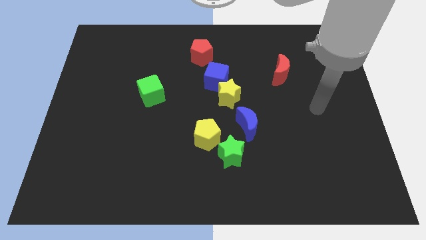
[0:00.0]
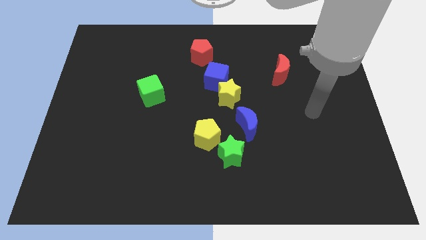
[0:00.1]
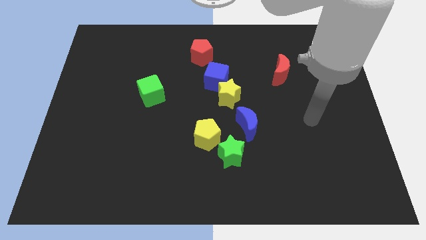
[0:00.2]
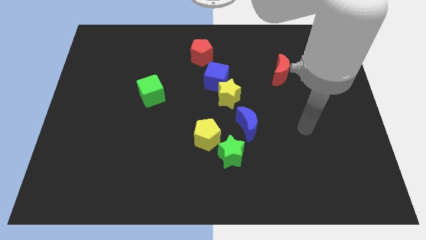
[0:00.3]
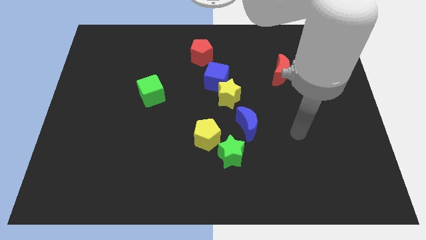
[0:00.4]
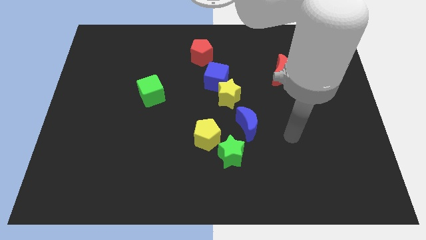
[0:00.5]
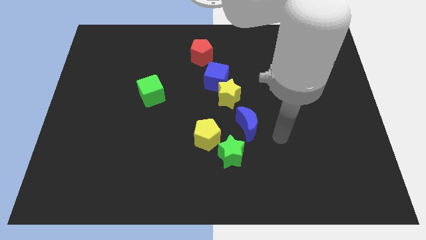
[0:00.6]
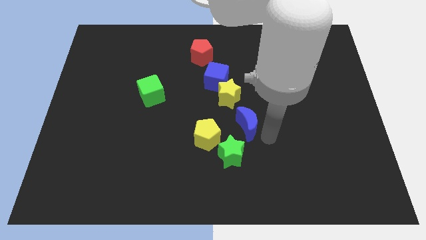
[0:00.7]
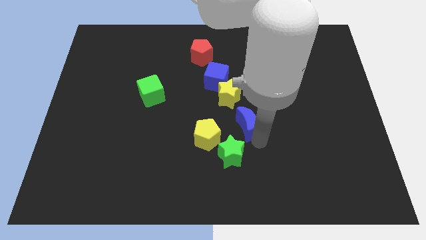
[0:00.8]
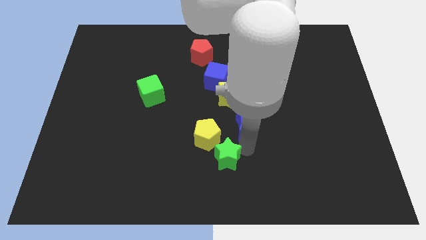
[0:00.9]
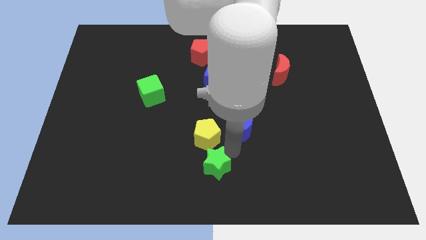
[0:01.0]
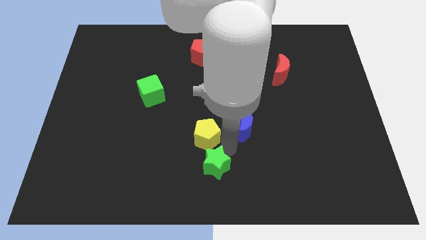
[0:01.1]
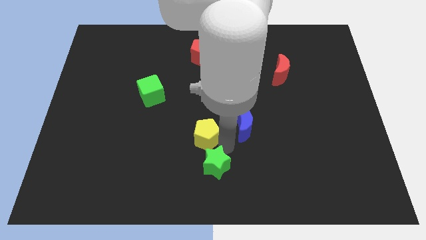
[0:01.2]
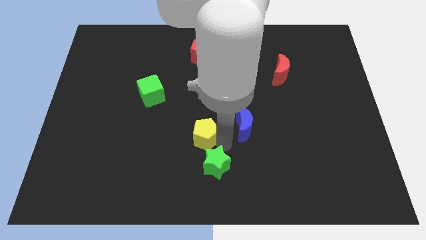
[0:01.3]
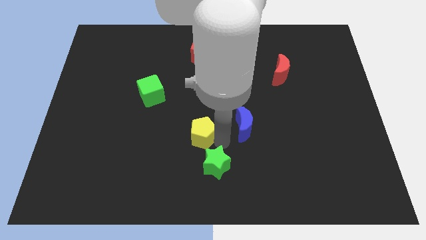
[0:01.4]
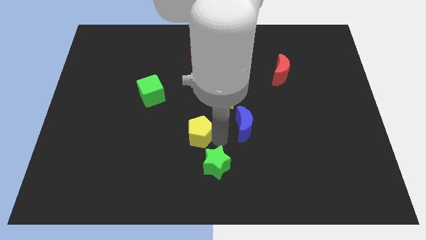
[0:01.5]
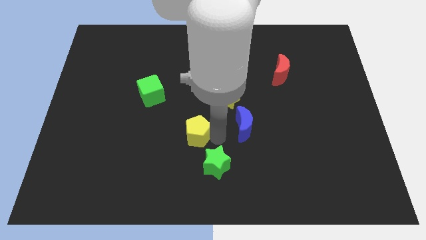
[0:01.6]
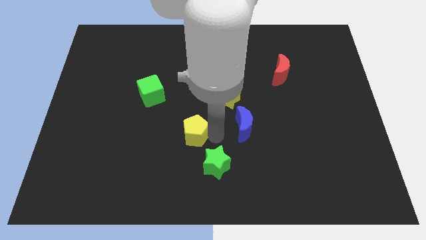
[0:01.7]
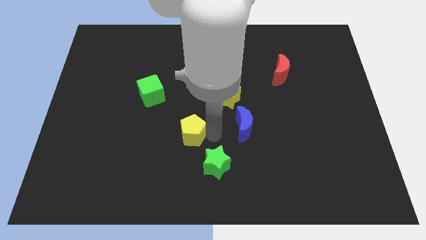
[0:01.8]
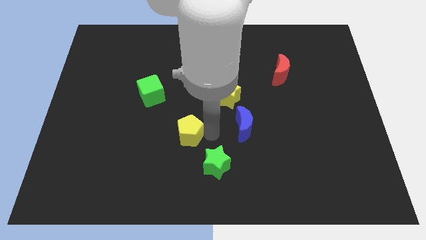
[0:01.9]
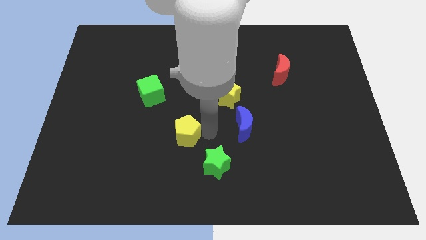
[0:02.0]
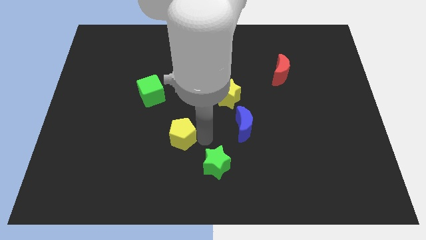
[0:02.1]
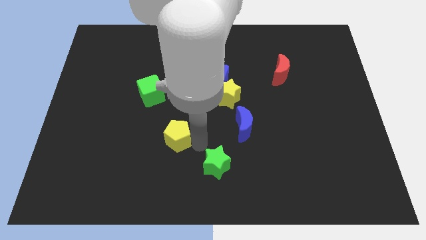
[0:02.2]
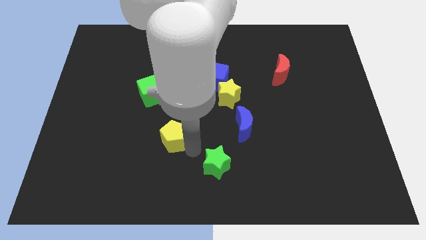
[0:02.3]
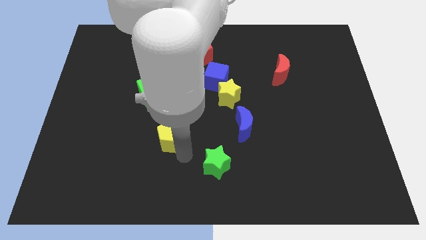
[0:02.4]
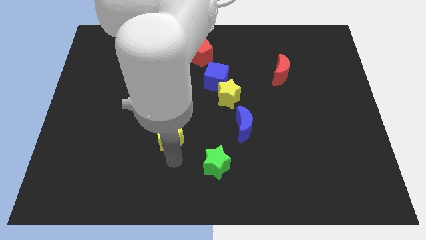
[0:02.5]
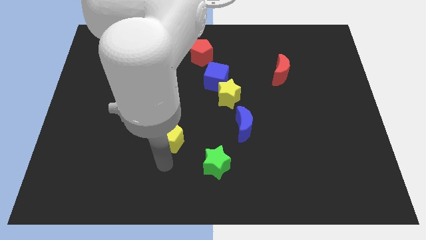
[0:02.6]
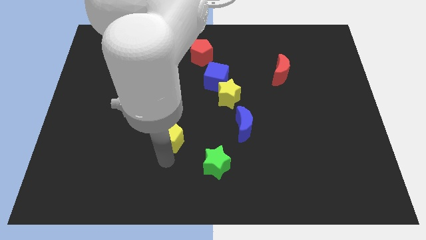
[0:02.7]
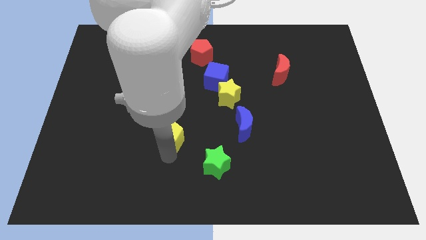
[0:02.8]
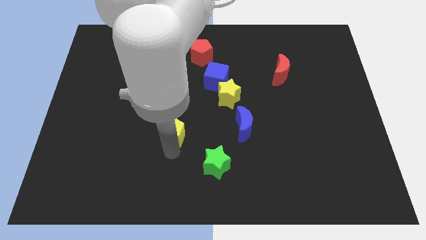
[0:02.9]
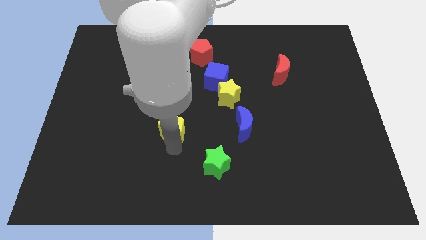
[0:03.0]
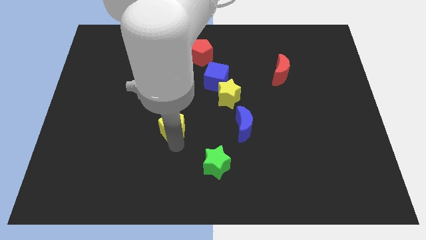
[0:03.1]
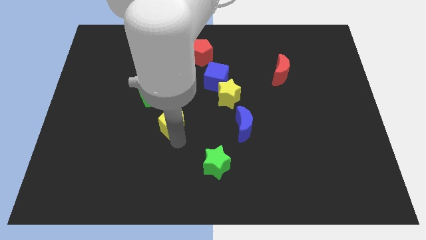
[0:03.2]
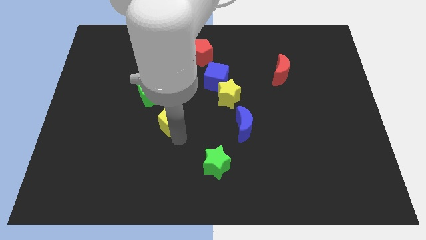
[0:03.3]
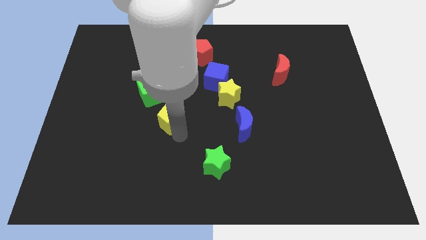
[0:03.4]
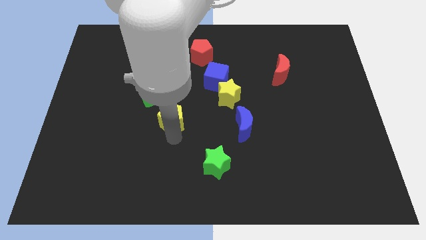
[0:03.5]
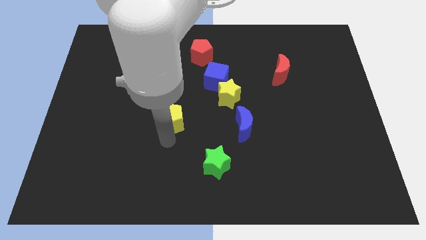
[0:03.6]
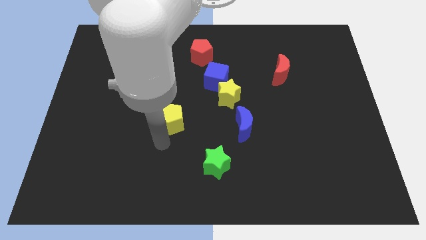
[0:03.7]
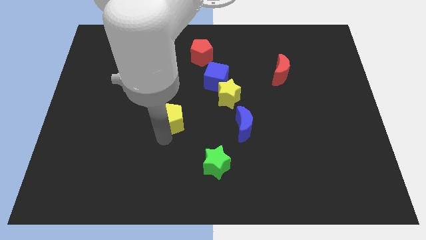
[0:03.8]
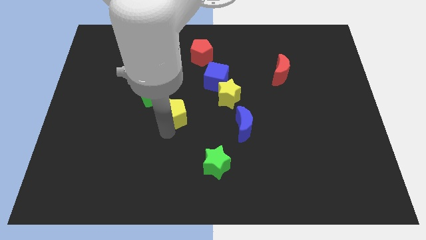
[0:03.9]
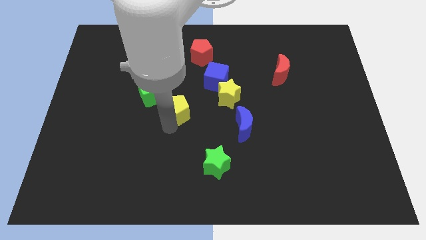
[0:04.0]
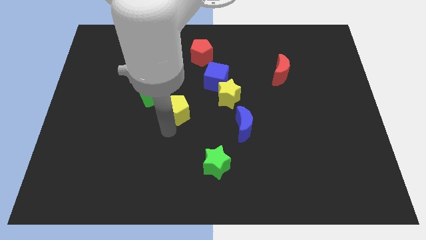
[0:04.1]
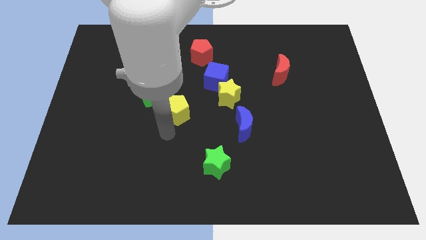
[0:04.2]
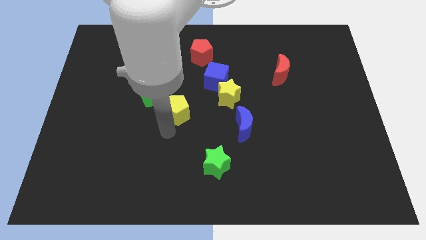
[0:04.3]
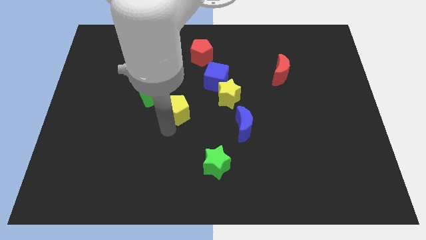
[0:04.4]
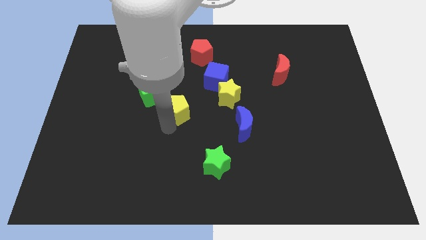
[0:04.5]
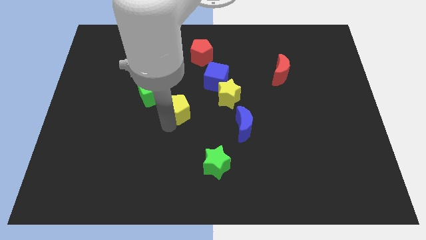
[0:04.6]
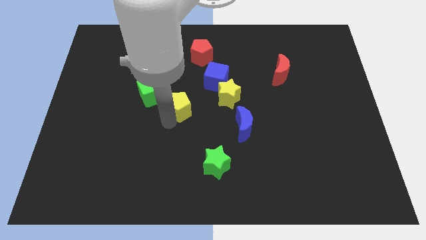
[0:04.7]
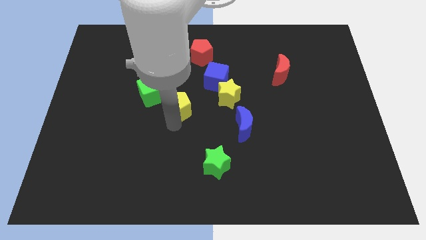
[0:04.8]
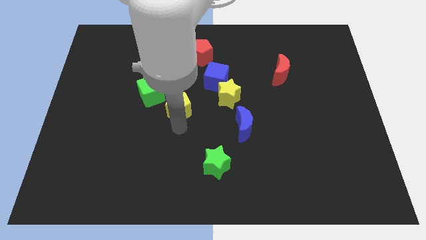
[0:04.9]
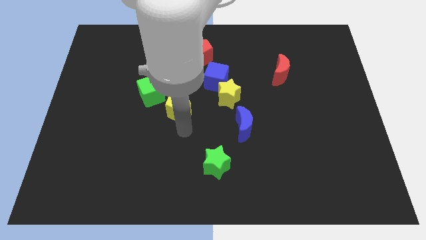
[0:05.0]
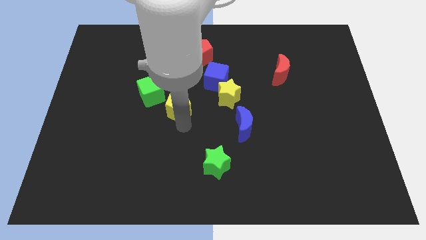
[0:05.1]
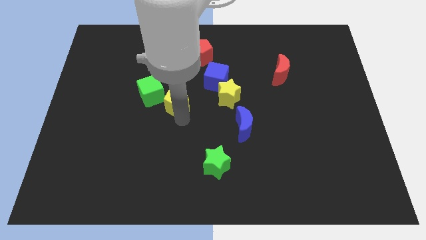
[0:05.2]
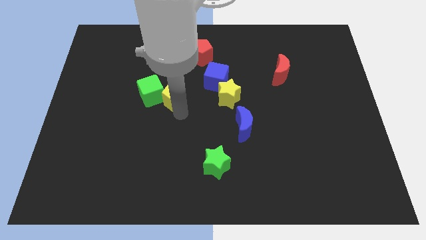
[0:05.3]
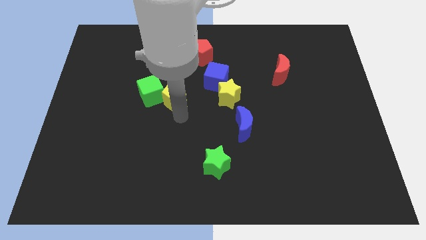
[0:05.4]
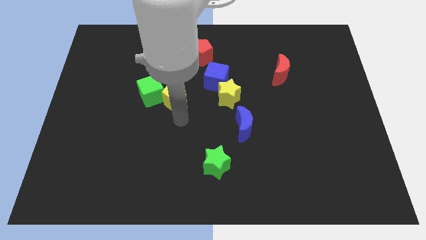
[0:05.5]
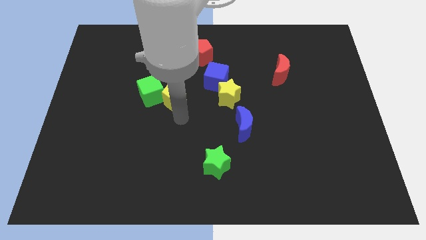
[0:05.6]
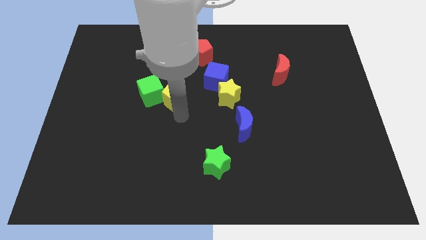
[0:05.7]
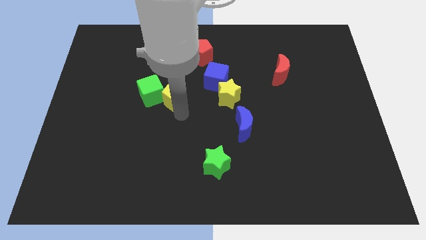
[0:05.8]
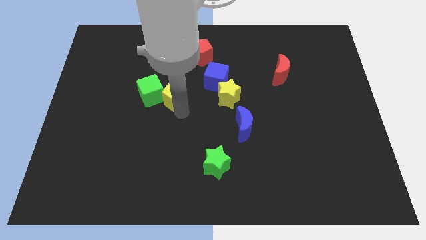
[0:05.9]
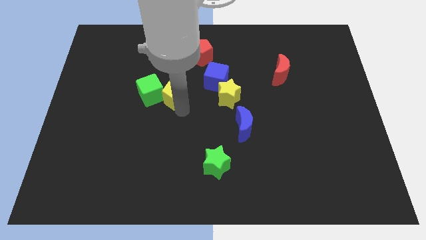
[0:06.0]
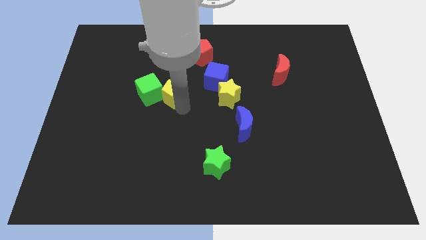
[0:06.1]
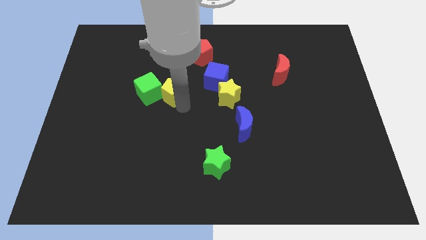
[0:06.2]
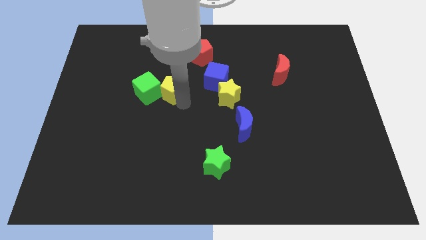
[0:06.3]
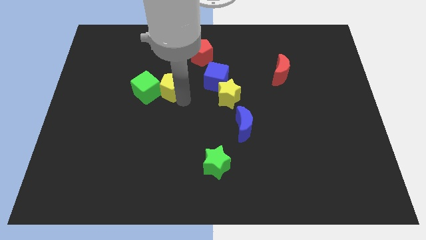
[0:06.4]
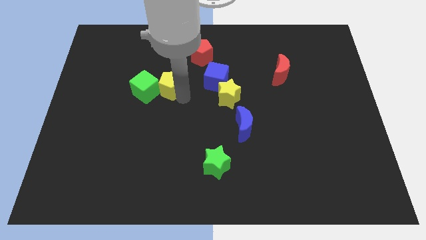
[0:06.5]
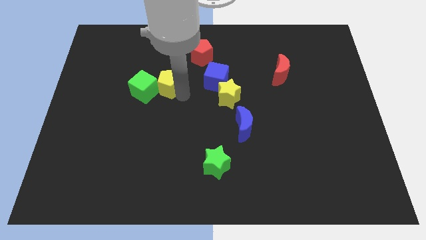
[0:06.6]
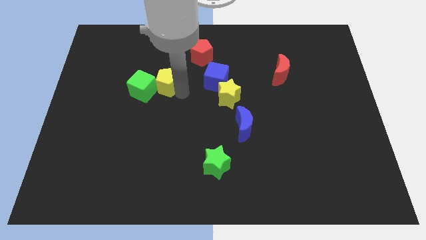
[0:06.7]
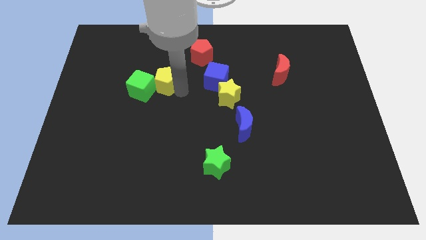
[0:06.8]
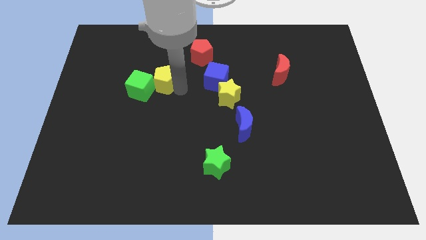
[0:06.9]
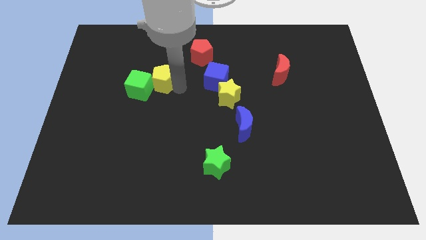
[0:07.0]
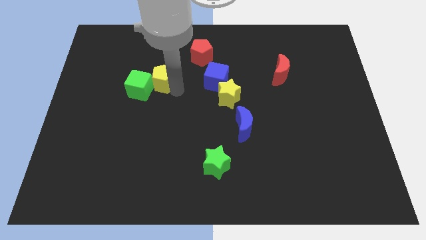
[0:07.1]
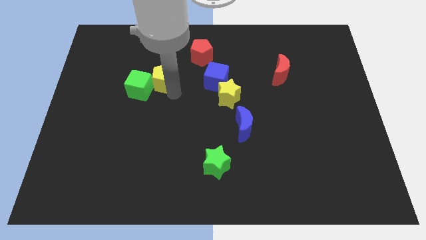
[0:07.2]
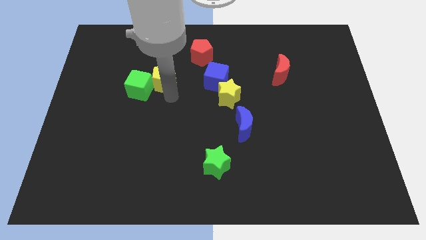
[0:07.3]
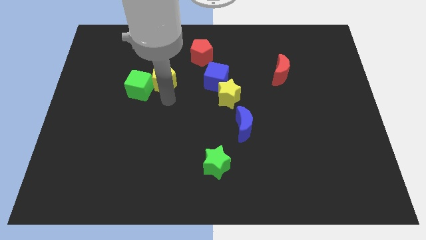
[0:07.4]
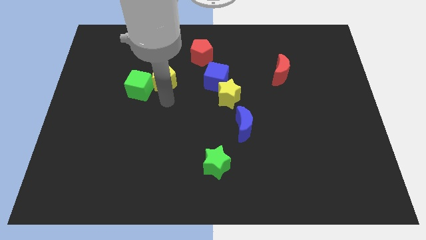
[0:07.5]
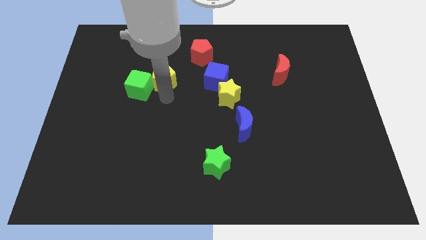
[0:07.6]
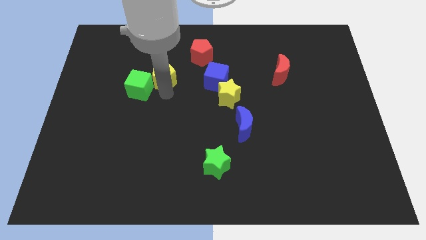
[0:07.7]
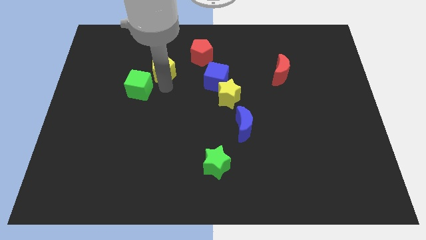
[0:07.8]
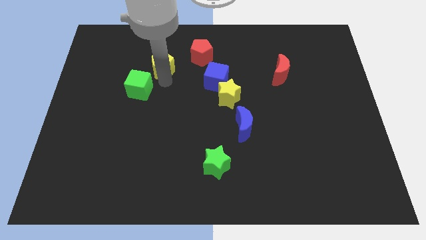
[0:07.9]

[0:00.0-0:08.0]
move the yellow pentagon to the left side of the red pentagon
